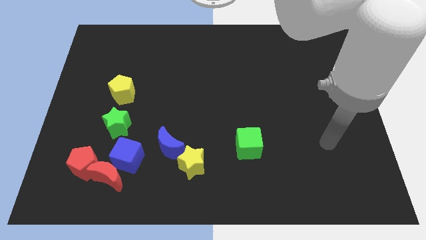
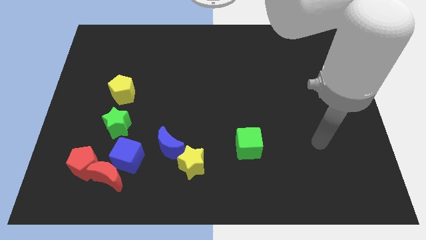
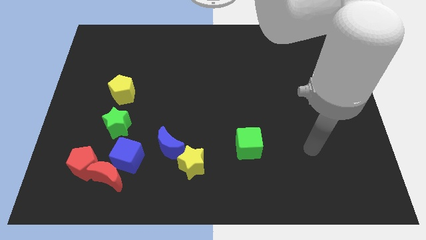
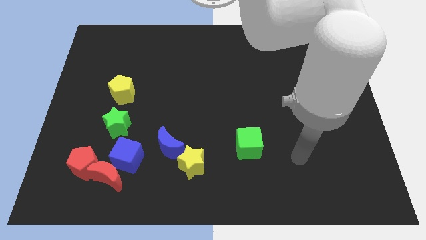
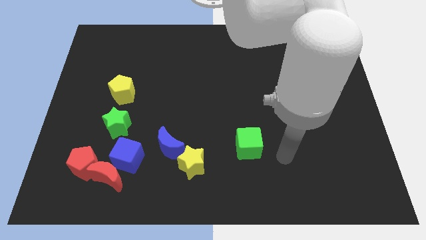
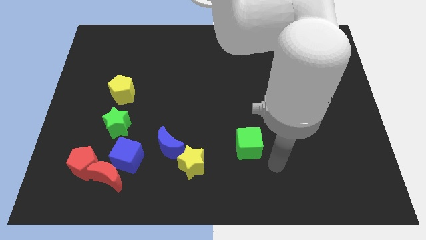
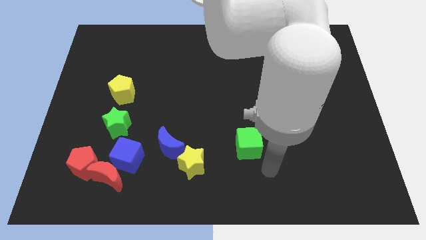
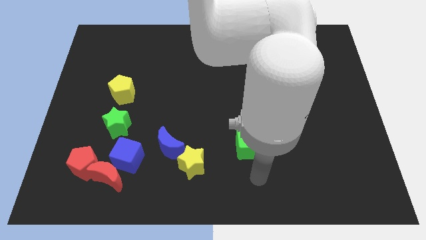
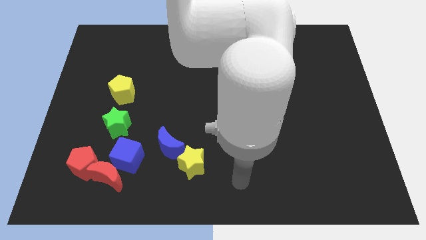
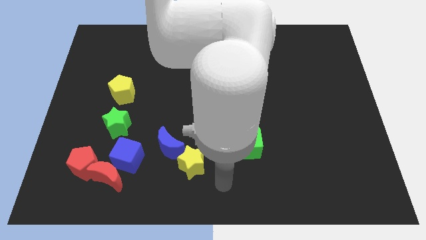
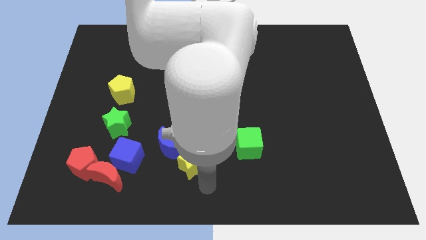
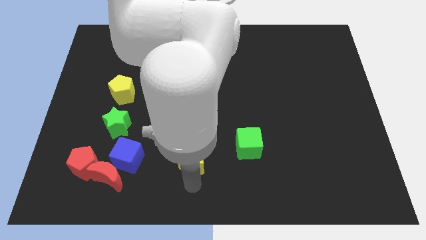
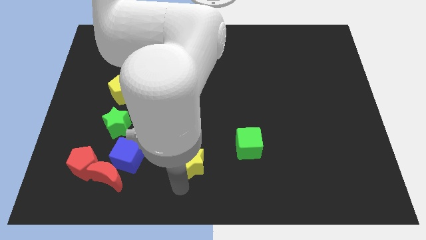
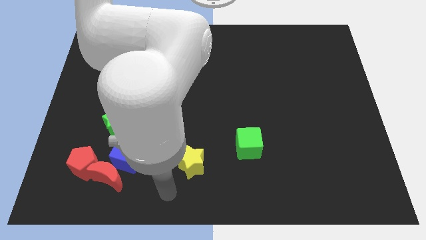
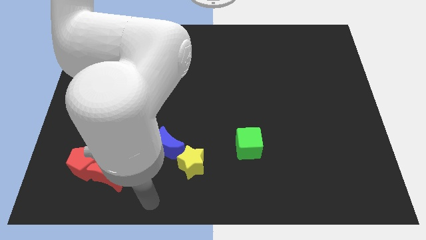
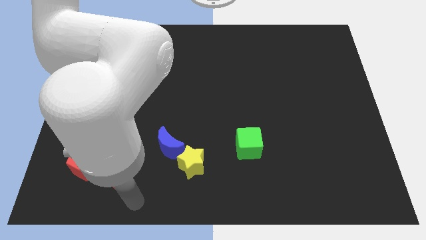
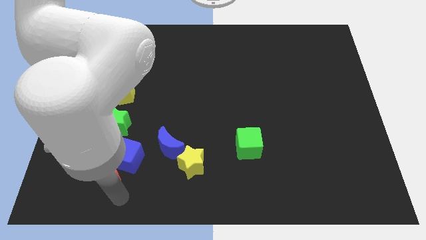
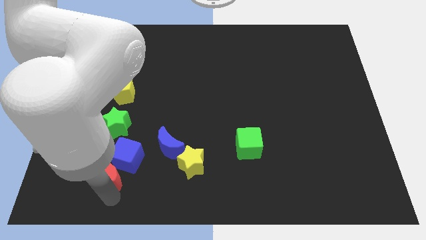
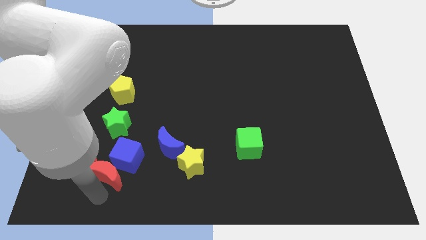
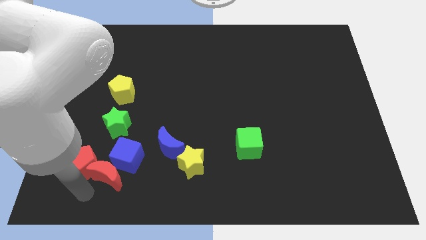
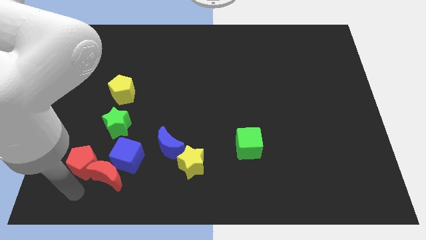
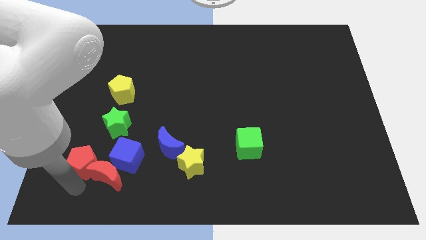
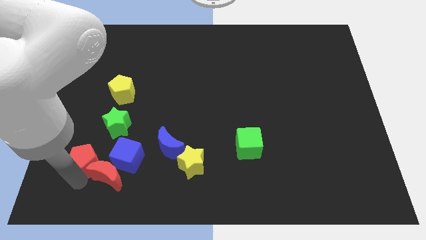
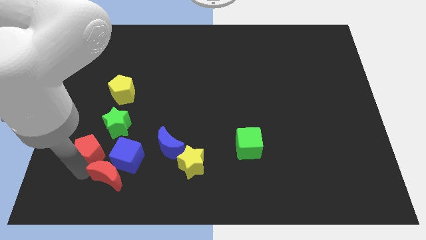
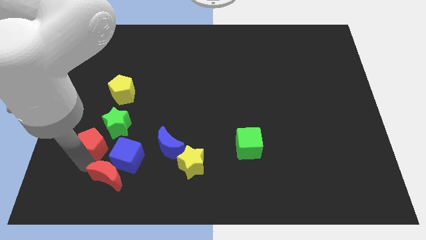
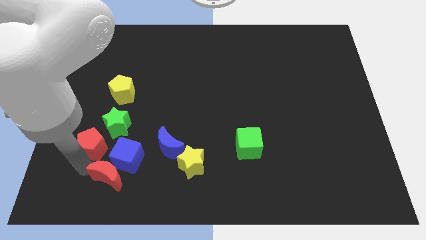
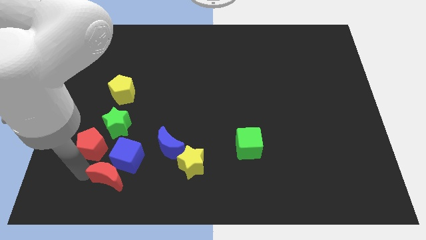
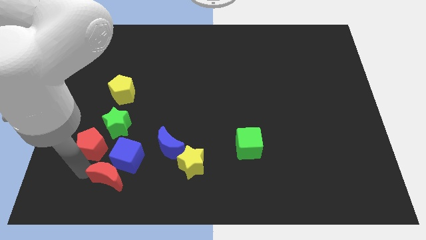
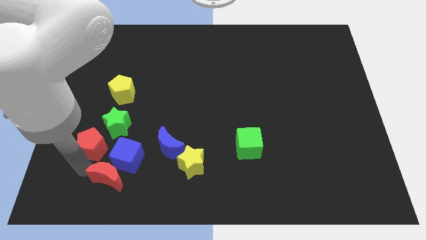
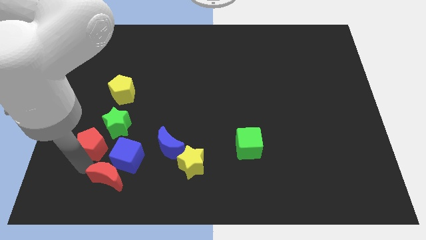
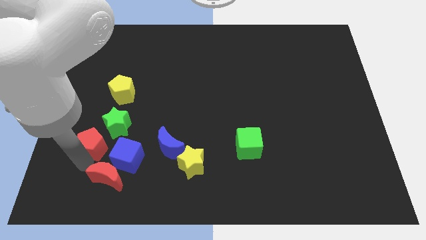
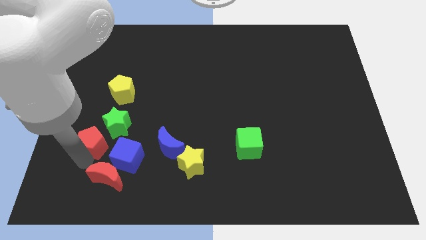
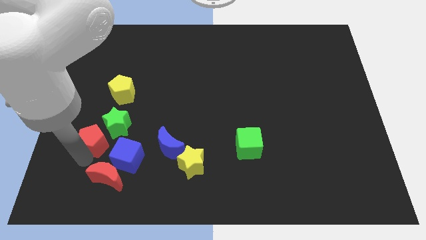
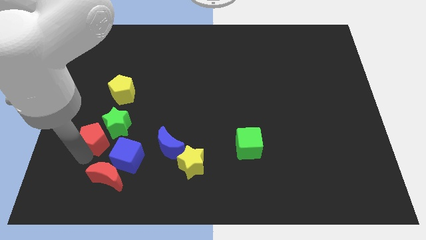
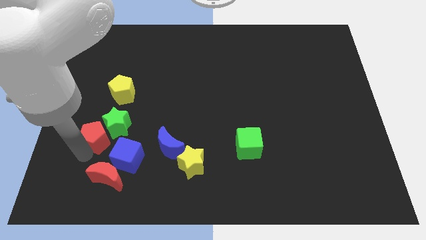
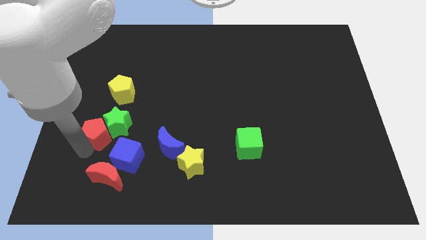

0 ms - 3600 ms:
push the red pentagon slightly up

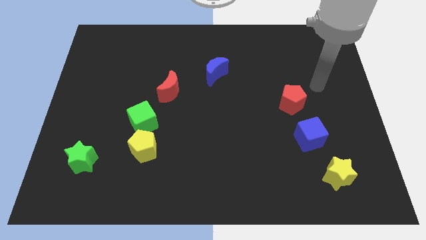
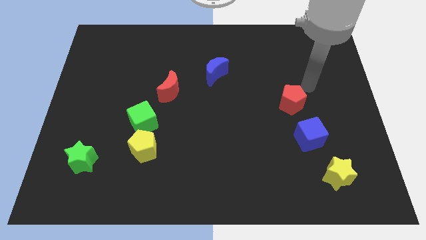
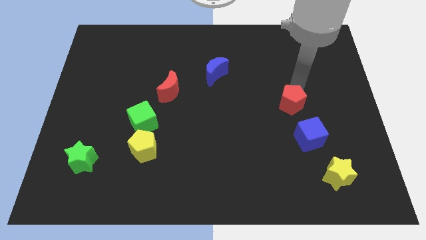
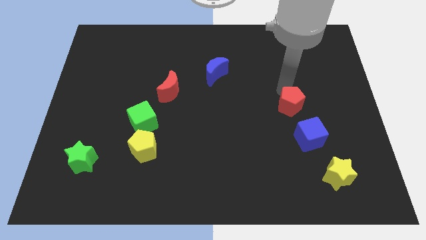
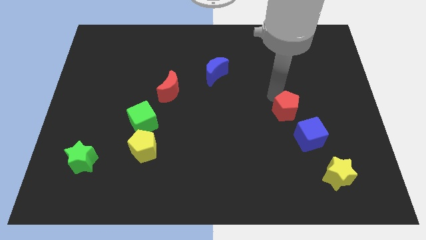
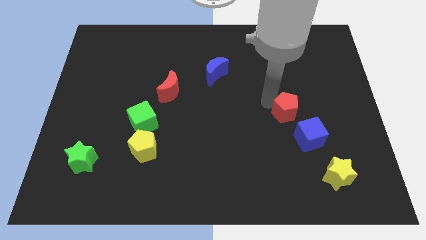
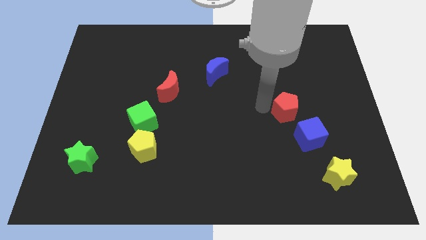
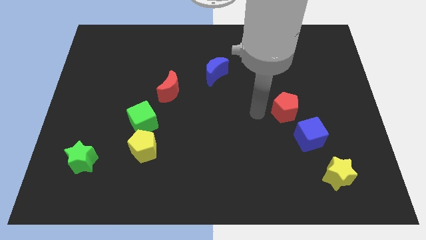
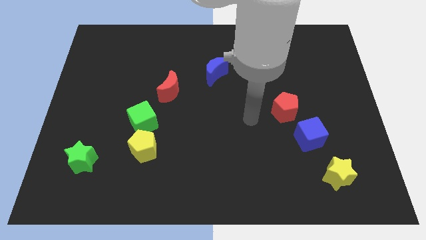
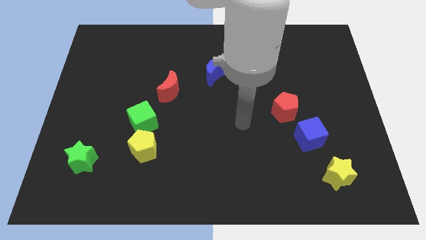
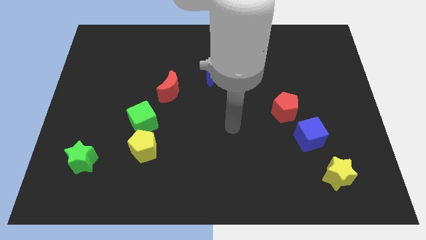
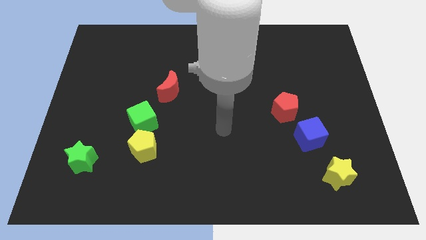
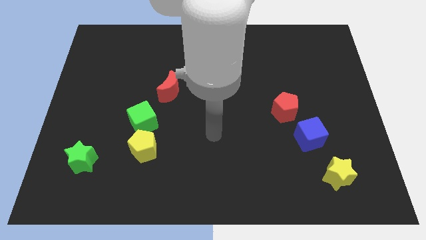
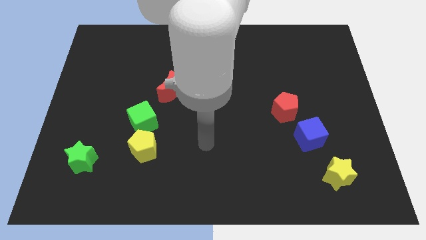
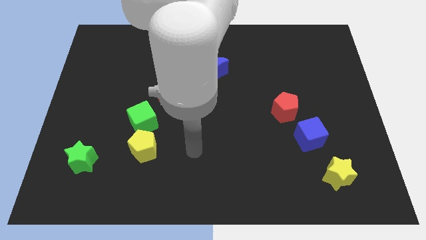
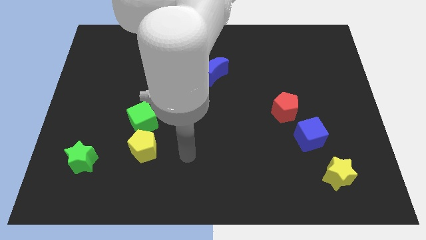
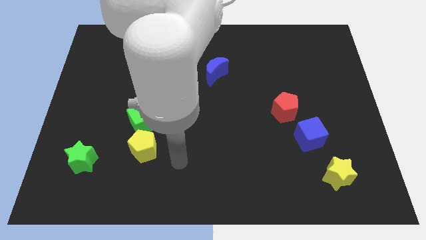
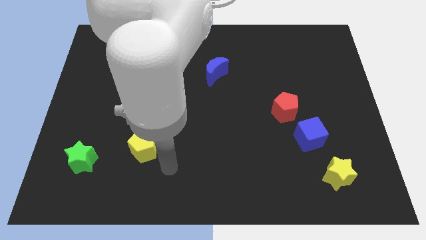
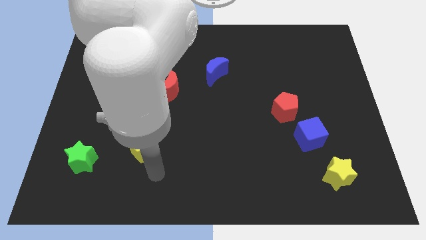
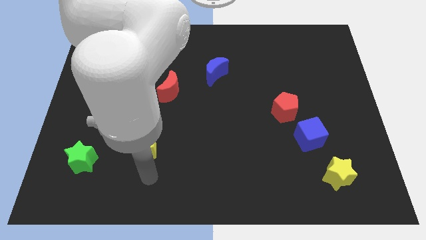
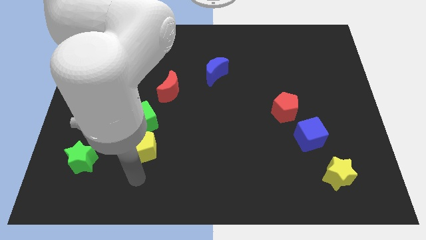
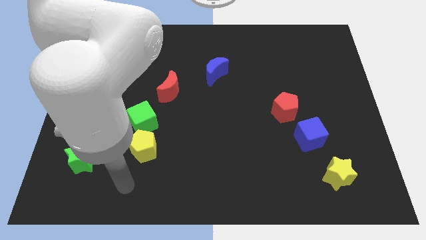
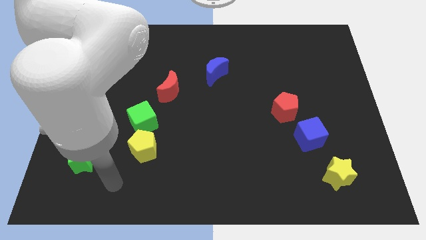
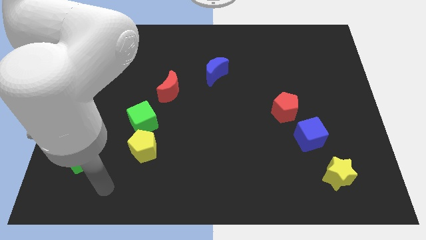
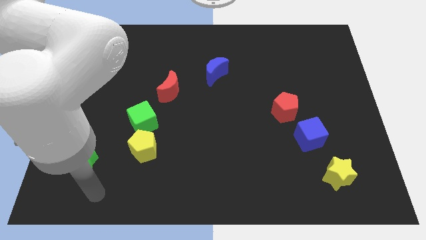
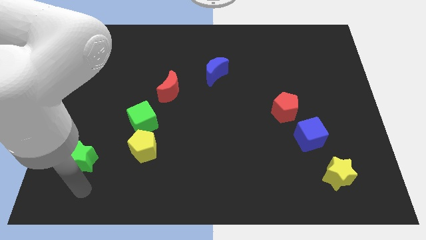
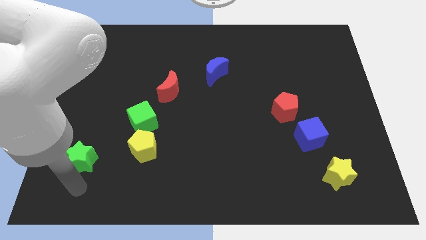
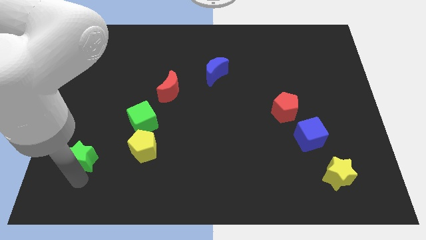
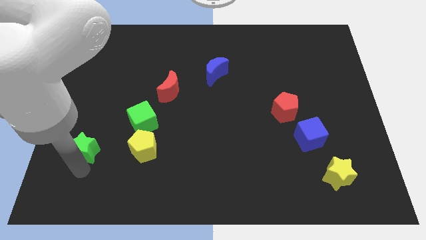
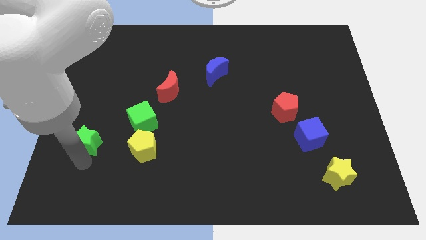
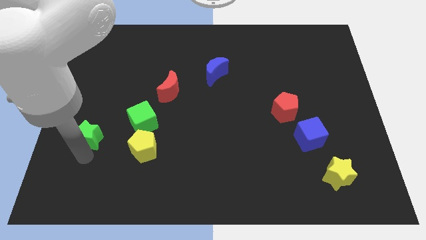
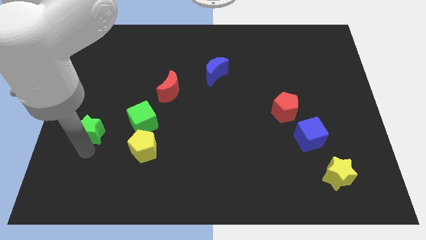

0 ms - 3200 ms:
slightly push the green star upwards

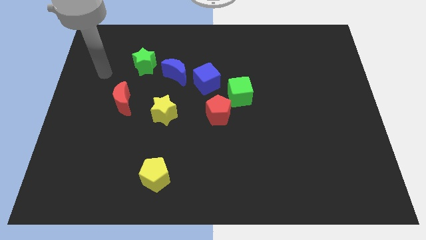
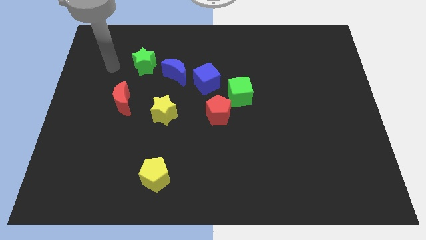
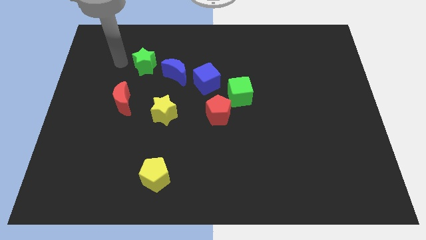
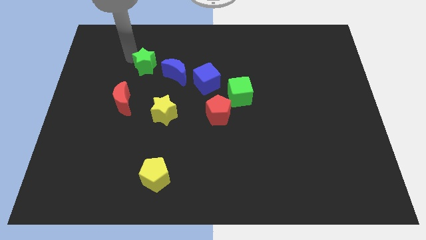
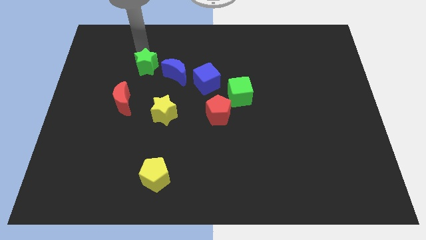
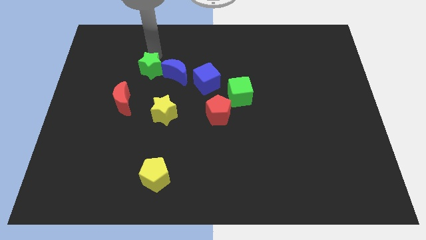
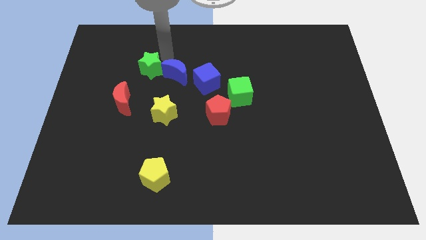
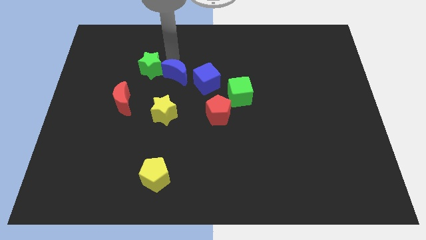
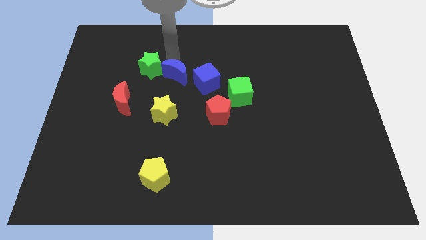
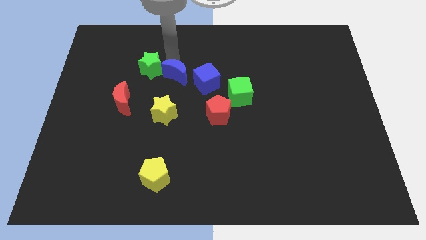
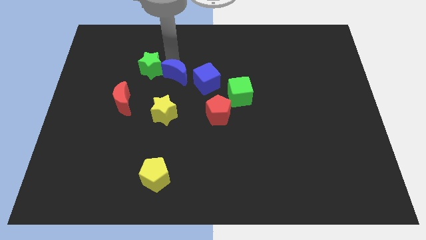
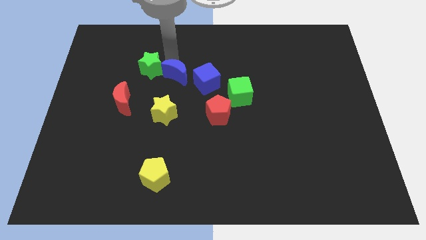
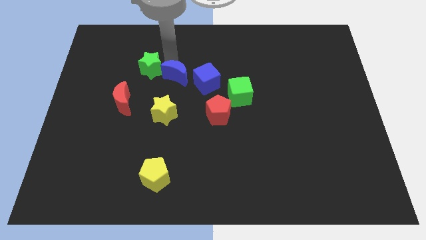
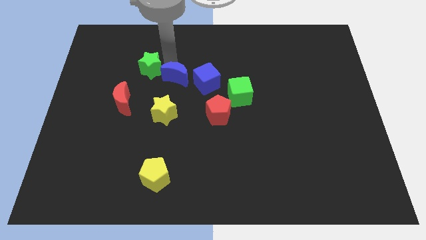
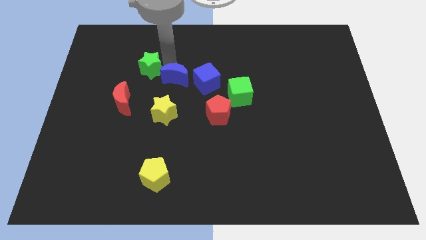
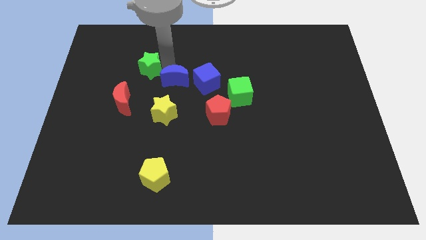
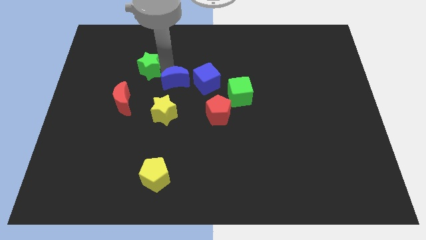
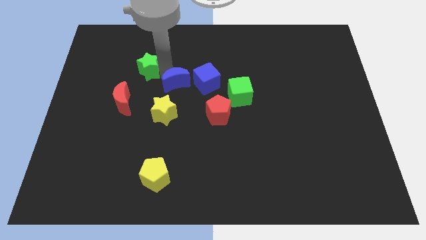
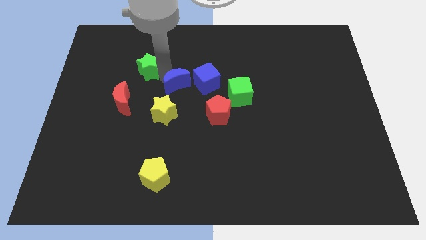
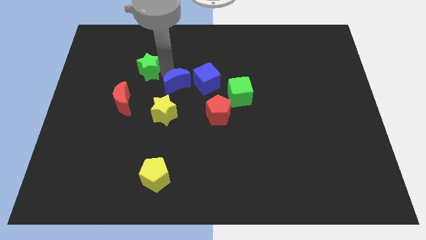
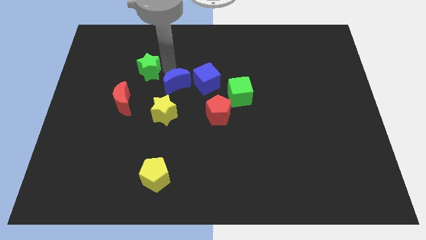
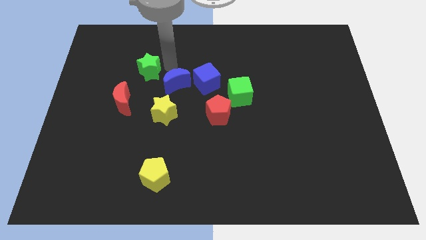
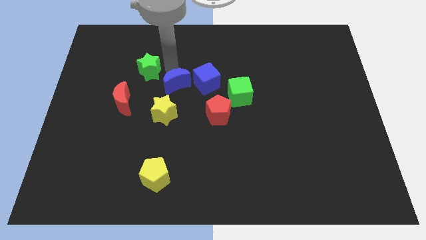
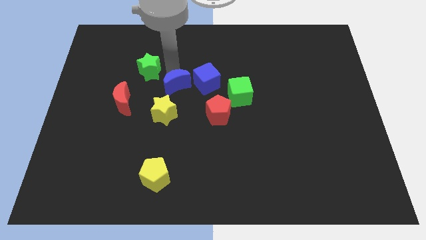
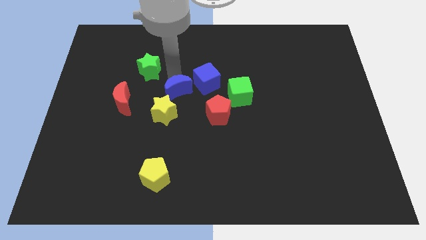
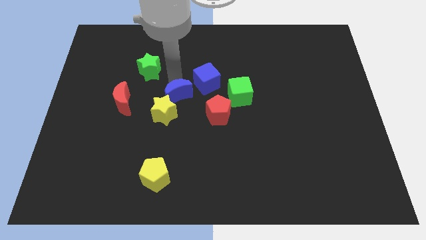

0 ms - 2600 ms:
slightly slide the blue moon downwards
